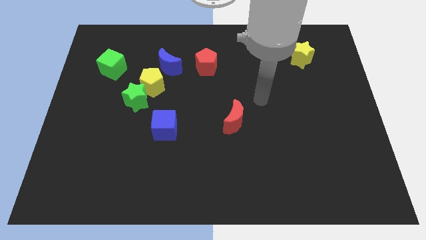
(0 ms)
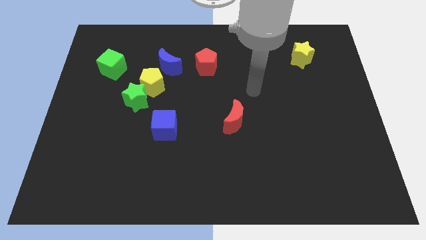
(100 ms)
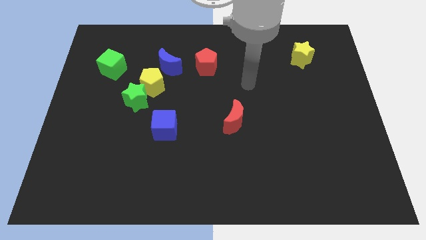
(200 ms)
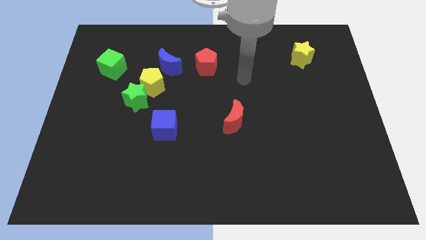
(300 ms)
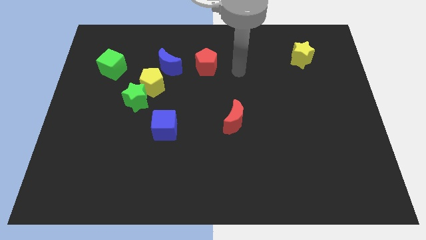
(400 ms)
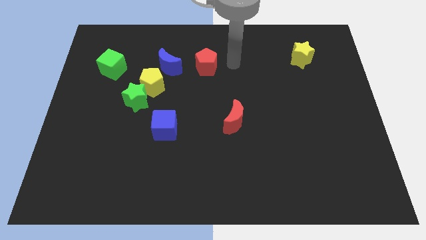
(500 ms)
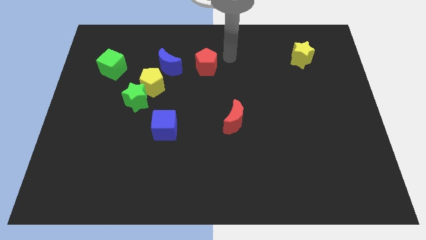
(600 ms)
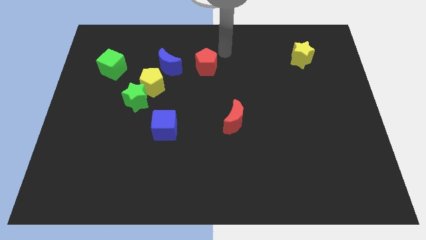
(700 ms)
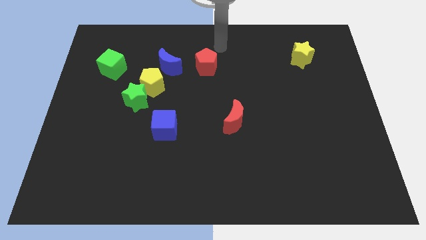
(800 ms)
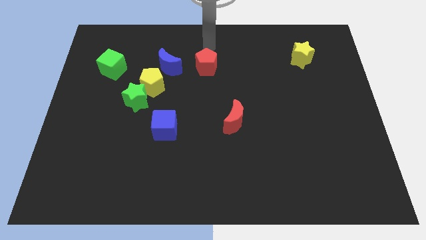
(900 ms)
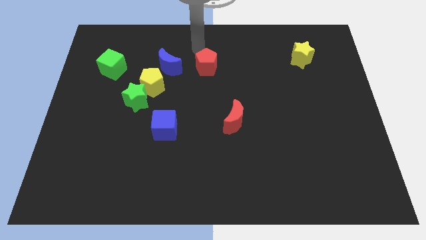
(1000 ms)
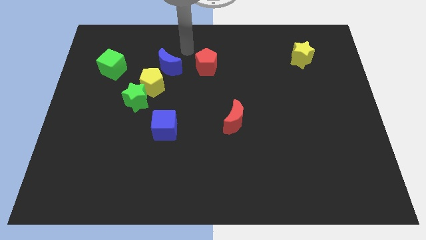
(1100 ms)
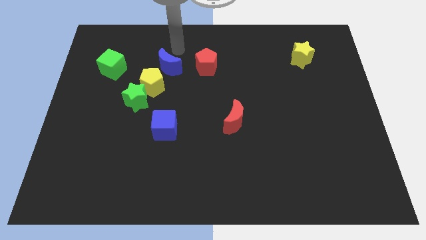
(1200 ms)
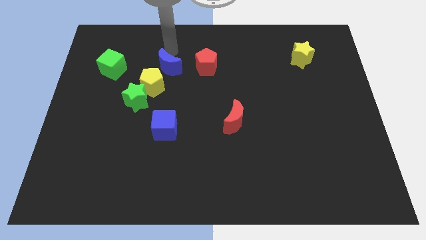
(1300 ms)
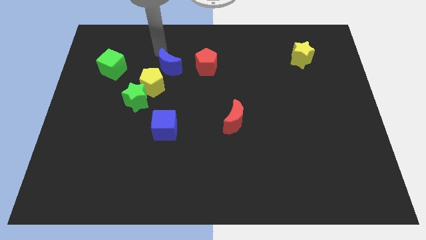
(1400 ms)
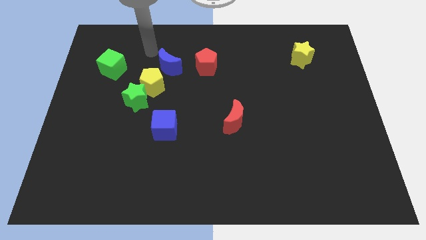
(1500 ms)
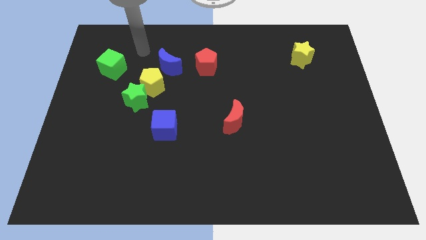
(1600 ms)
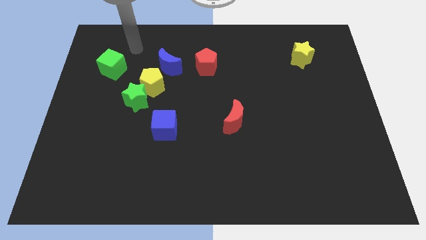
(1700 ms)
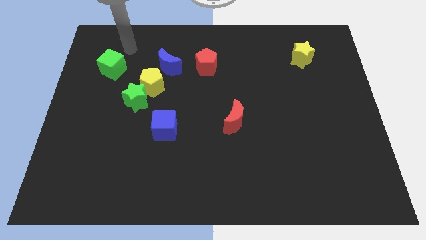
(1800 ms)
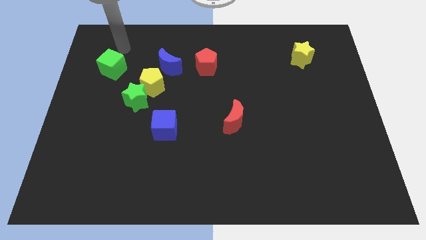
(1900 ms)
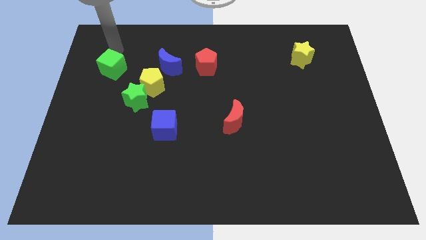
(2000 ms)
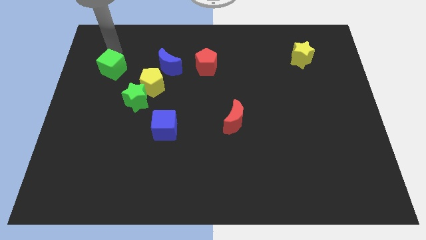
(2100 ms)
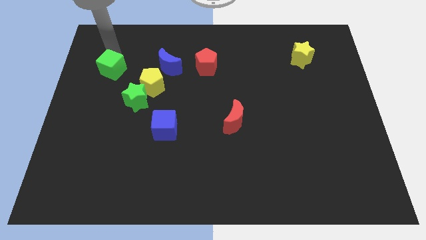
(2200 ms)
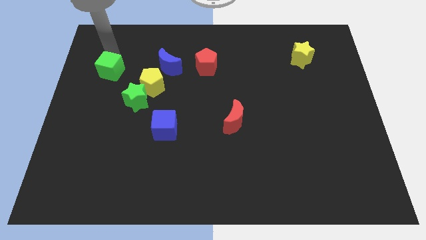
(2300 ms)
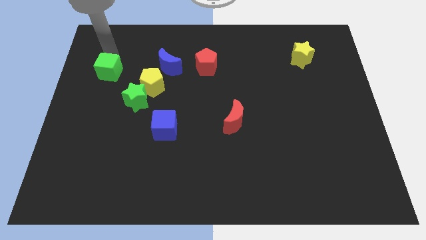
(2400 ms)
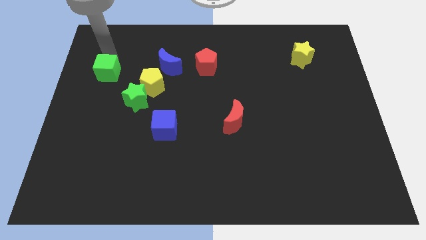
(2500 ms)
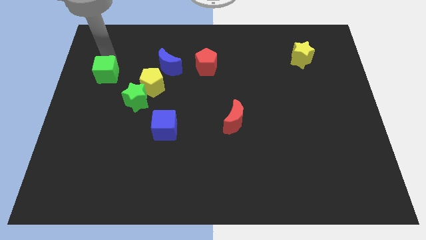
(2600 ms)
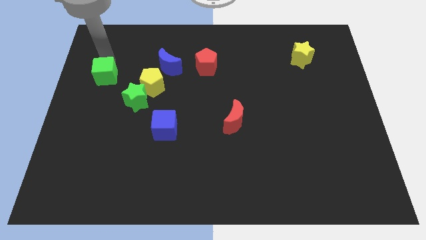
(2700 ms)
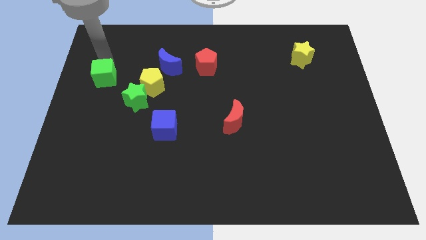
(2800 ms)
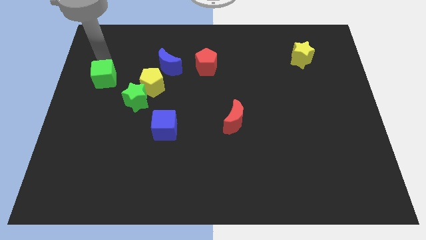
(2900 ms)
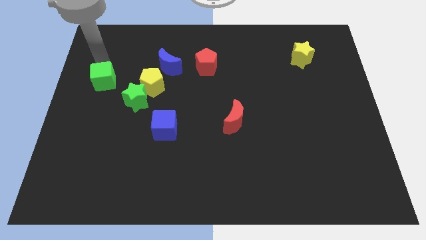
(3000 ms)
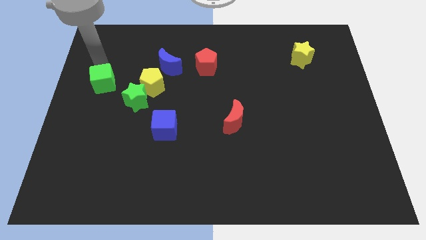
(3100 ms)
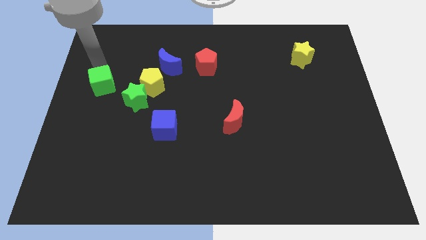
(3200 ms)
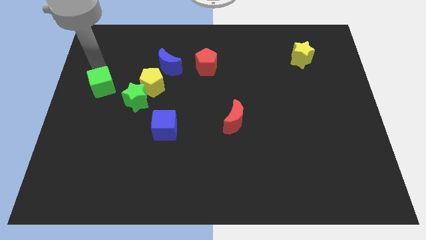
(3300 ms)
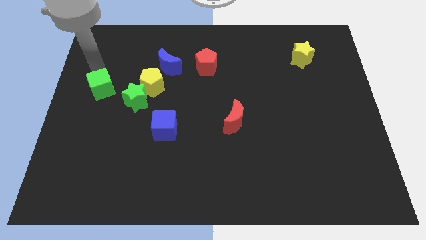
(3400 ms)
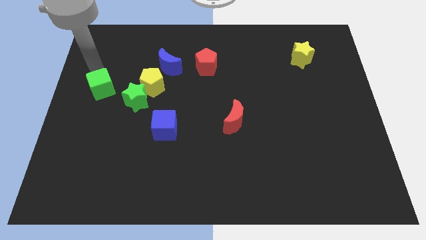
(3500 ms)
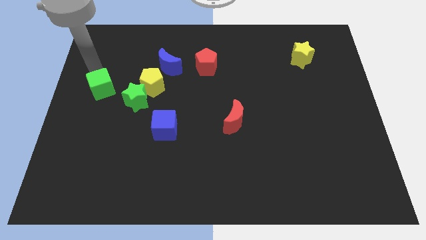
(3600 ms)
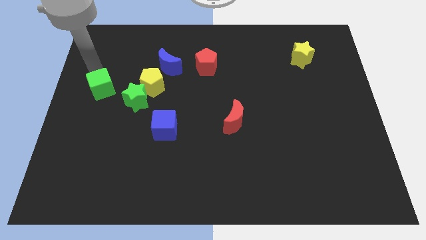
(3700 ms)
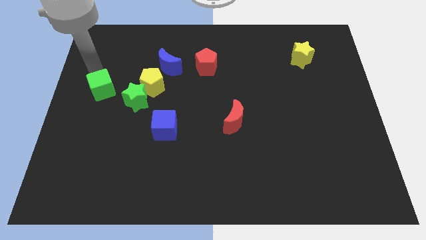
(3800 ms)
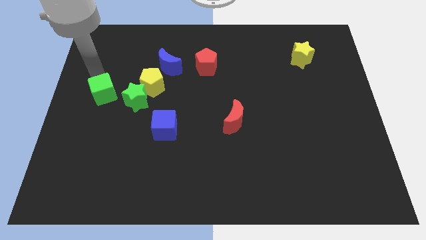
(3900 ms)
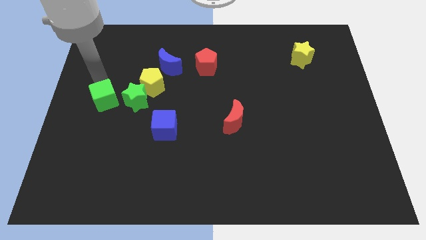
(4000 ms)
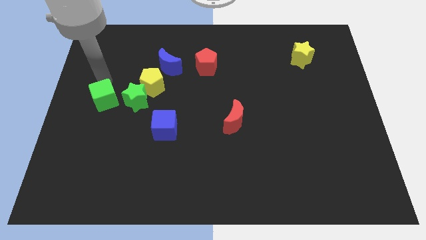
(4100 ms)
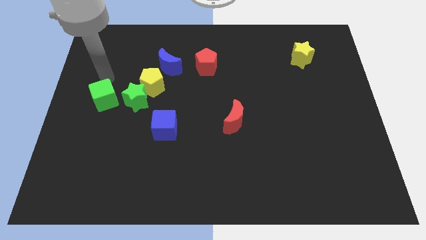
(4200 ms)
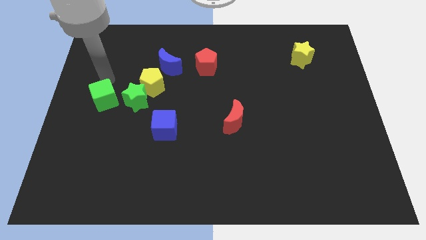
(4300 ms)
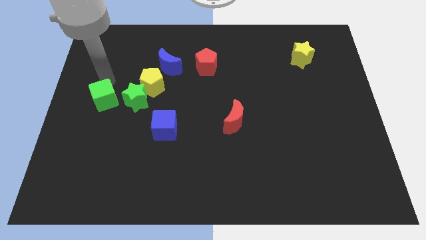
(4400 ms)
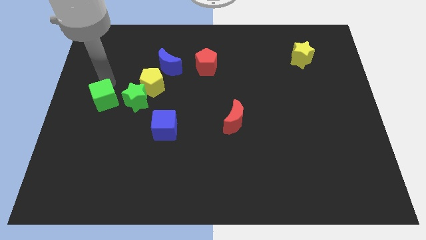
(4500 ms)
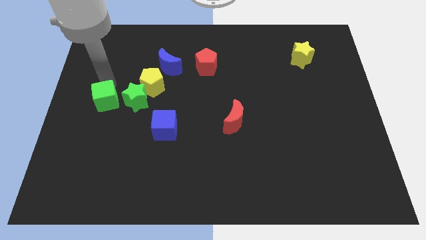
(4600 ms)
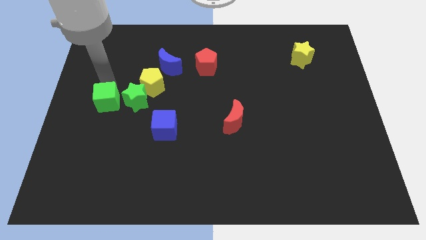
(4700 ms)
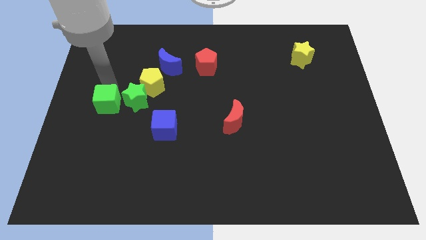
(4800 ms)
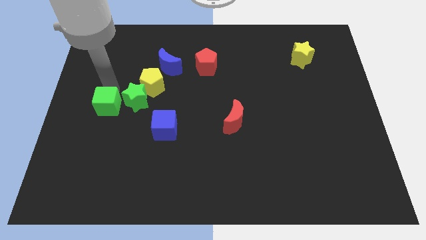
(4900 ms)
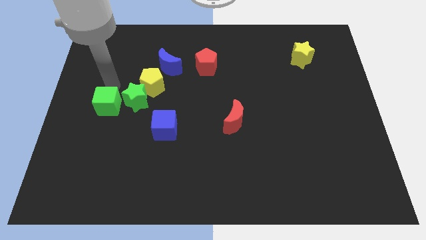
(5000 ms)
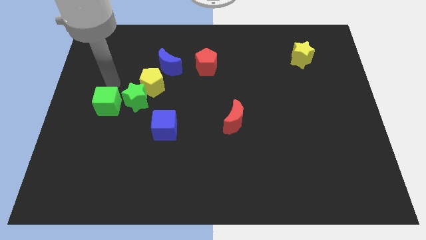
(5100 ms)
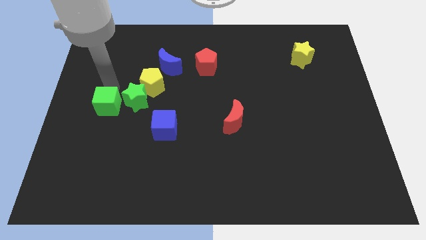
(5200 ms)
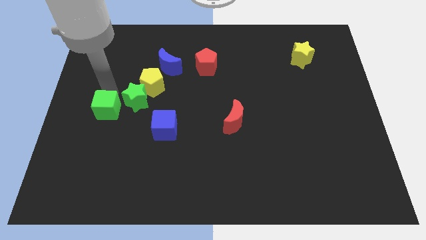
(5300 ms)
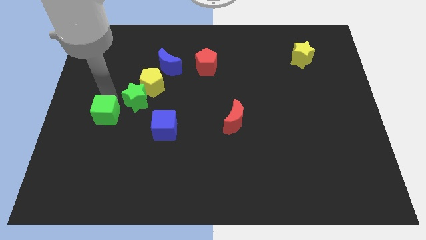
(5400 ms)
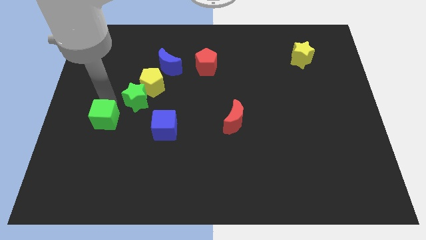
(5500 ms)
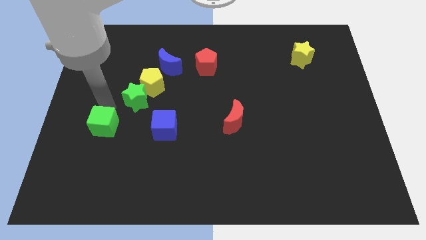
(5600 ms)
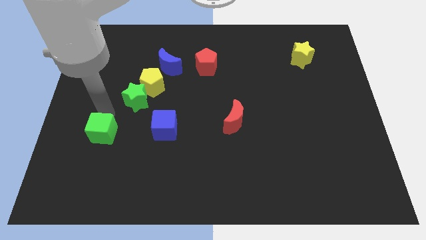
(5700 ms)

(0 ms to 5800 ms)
move the green cube down

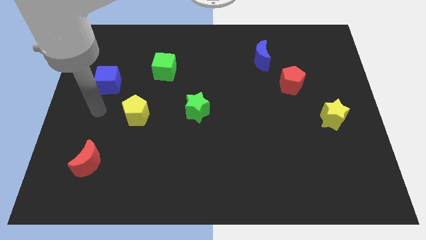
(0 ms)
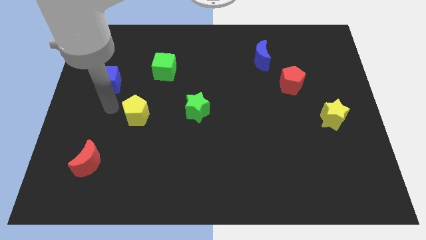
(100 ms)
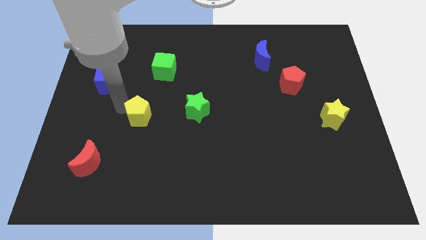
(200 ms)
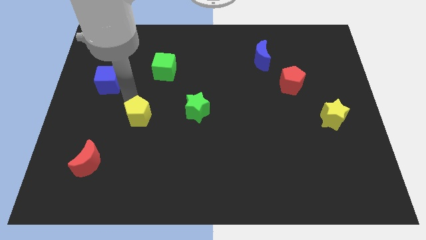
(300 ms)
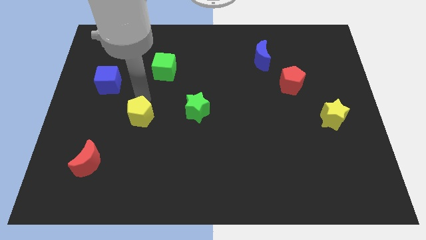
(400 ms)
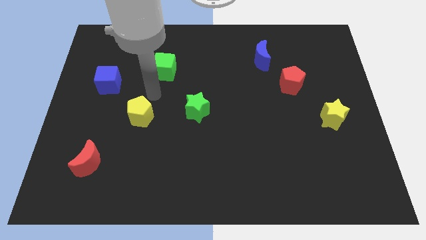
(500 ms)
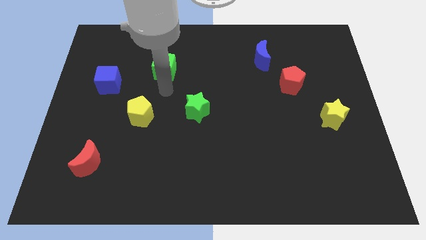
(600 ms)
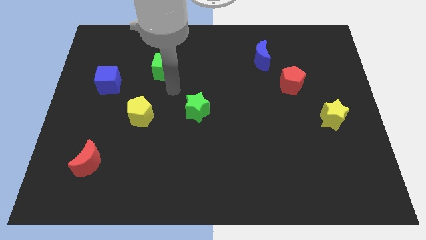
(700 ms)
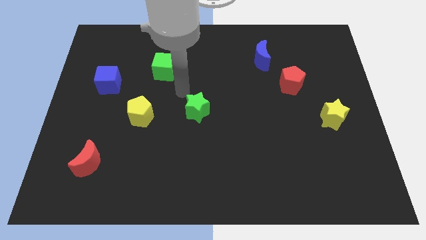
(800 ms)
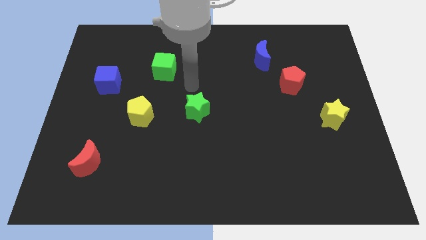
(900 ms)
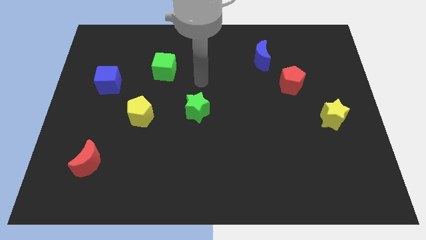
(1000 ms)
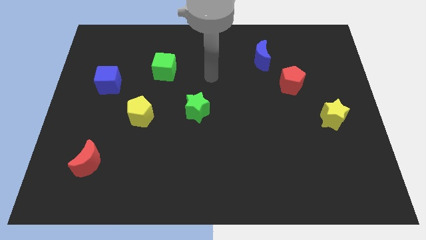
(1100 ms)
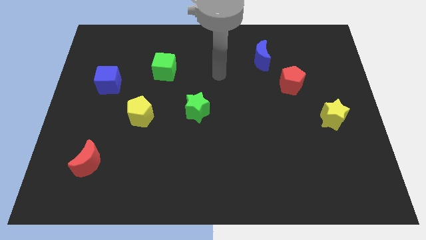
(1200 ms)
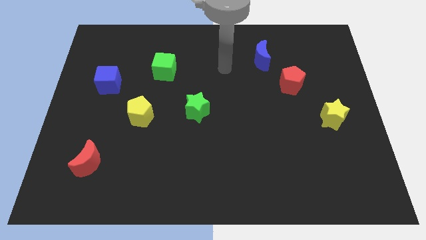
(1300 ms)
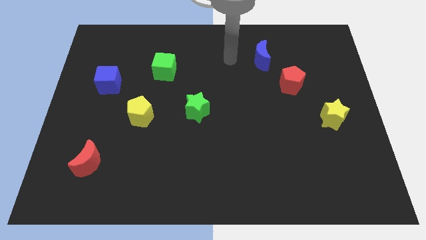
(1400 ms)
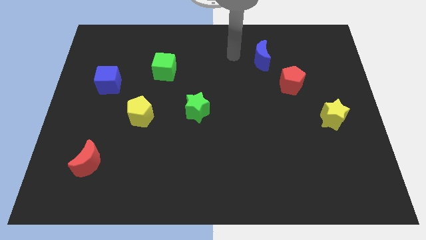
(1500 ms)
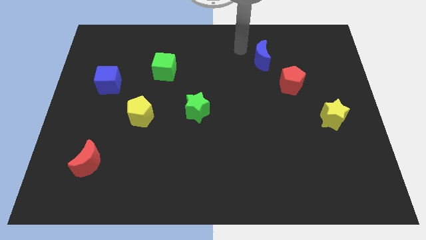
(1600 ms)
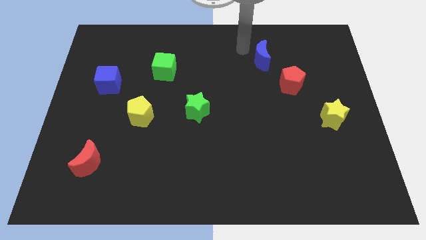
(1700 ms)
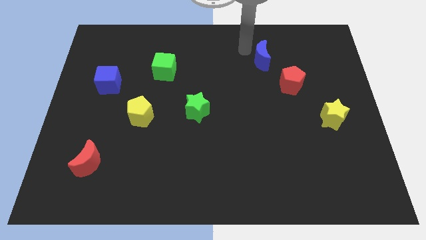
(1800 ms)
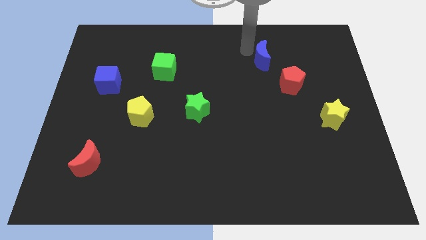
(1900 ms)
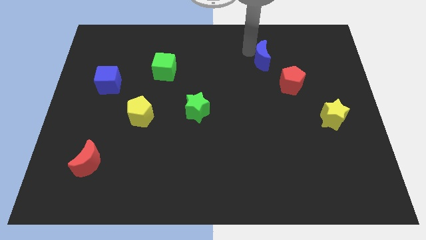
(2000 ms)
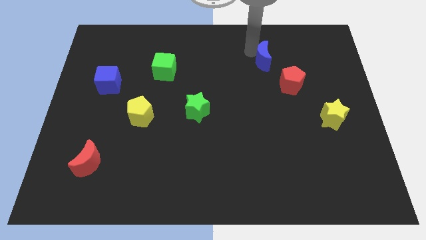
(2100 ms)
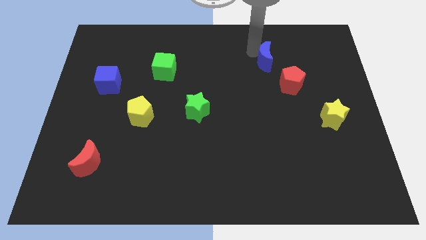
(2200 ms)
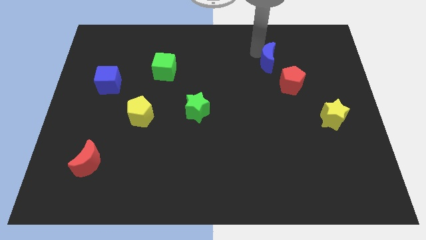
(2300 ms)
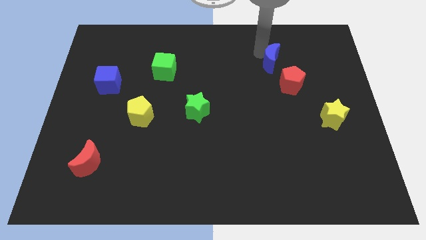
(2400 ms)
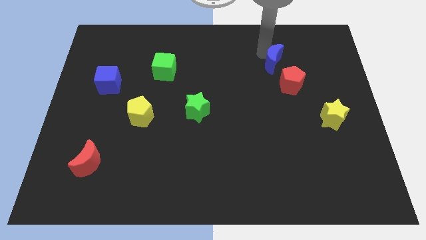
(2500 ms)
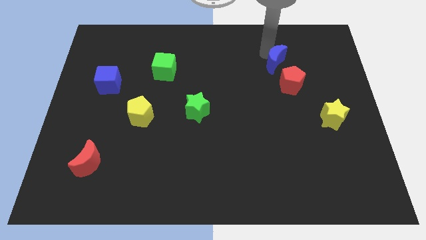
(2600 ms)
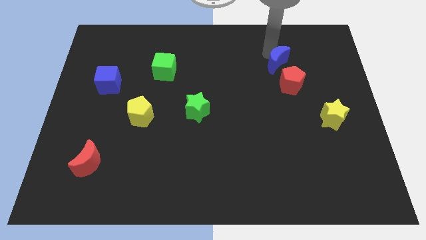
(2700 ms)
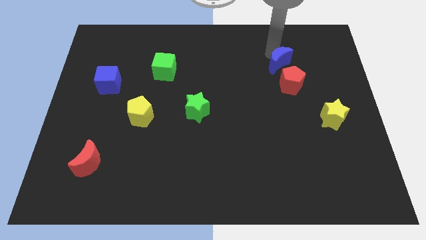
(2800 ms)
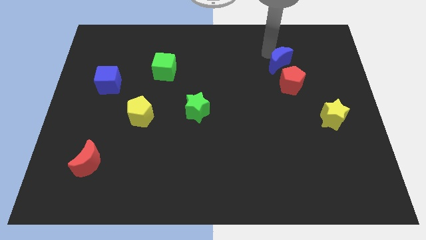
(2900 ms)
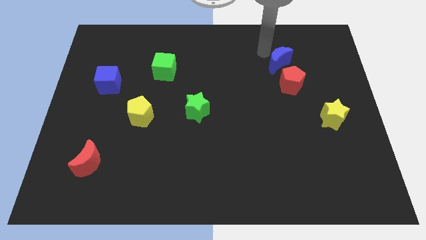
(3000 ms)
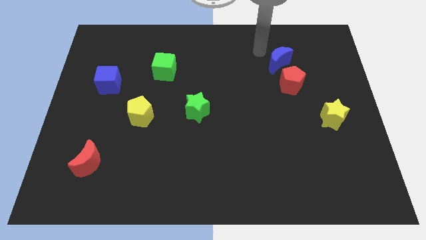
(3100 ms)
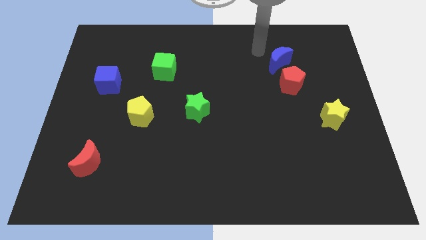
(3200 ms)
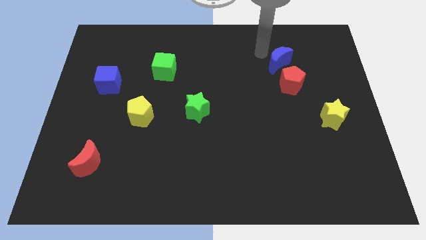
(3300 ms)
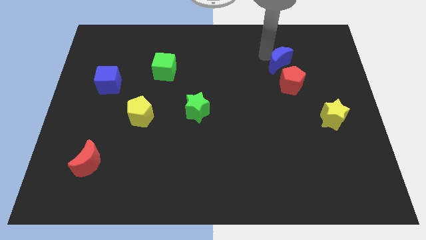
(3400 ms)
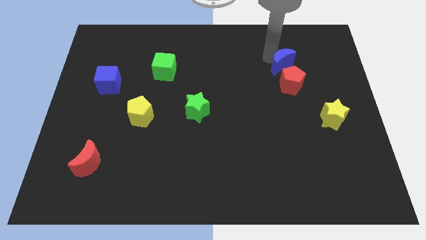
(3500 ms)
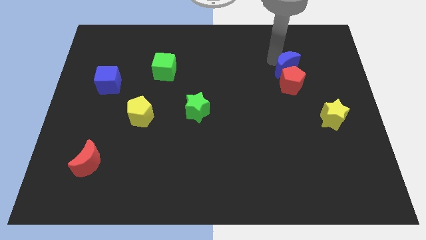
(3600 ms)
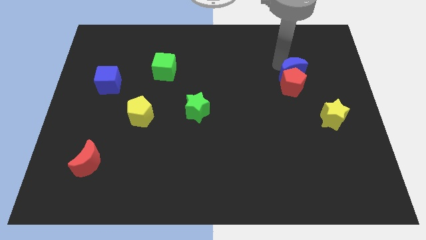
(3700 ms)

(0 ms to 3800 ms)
slightly slide the blue moon downwards and then to the right
